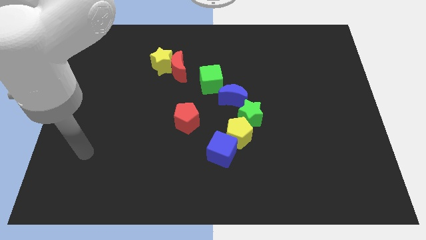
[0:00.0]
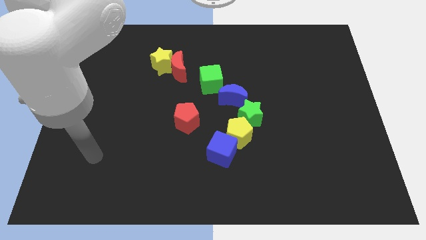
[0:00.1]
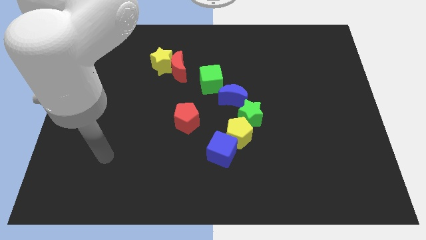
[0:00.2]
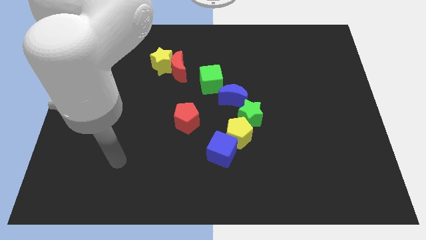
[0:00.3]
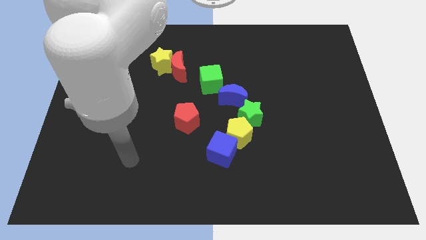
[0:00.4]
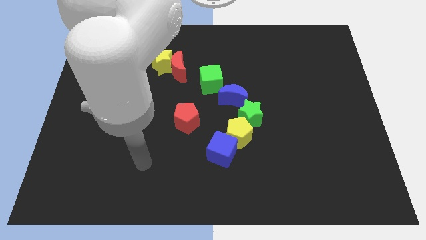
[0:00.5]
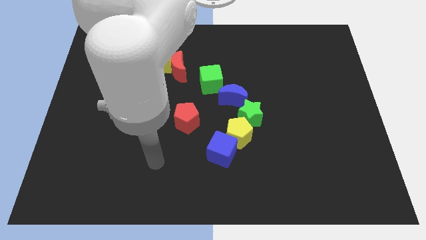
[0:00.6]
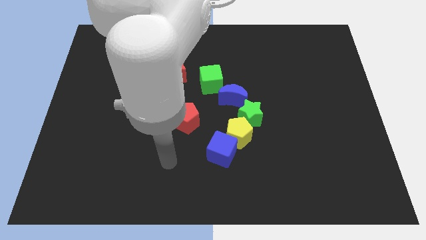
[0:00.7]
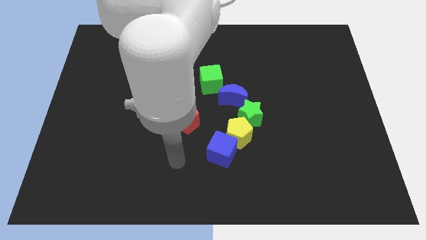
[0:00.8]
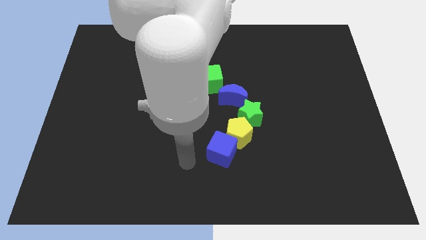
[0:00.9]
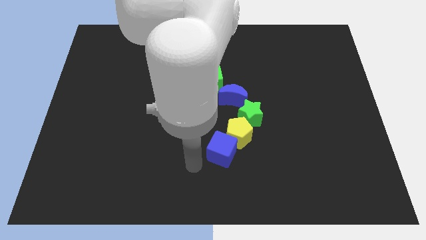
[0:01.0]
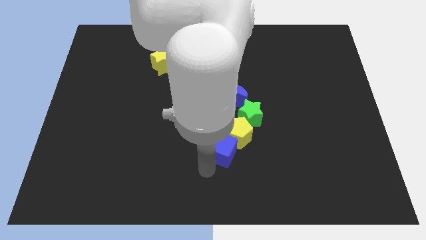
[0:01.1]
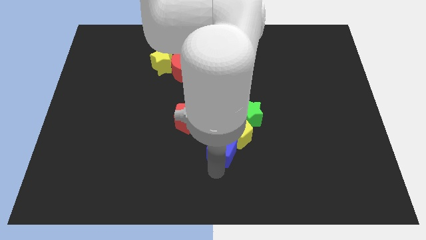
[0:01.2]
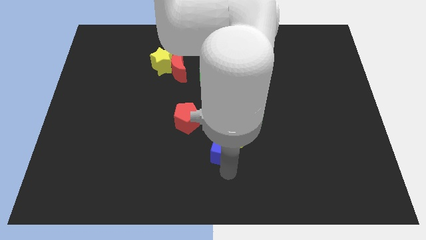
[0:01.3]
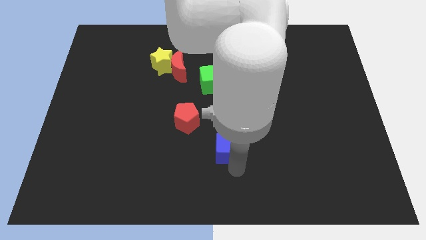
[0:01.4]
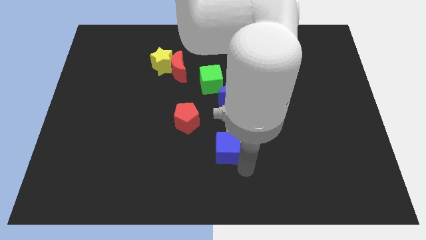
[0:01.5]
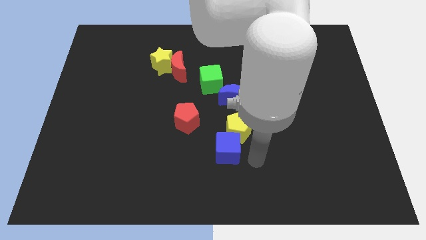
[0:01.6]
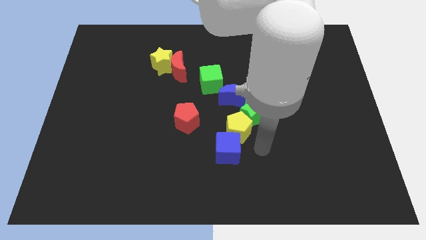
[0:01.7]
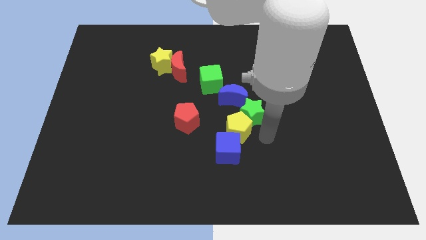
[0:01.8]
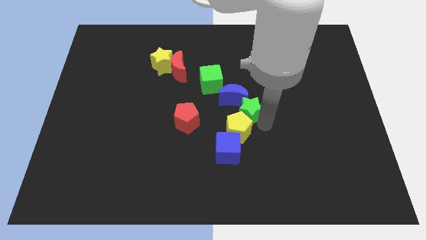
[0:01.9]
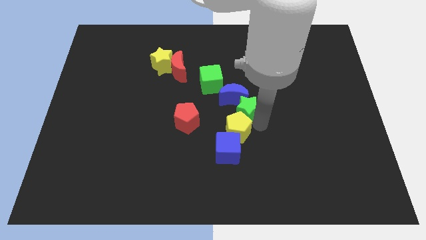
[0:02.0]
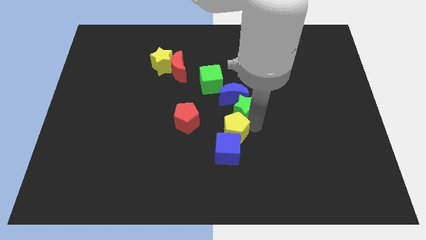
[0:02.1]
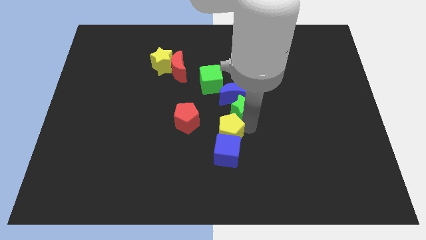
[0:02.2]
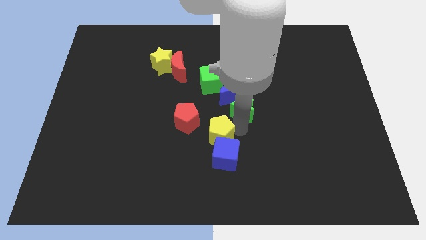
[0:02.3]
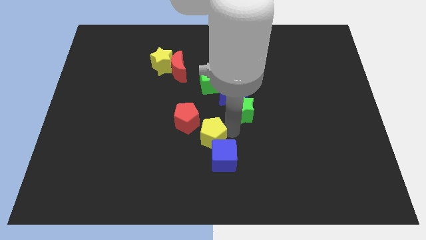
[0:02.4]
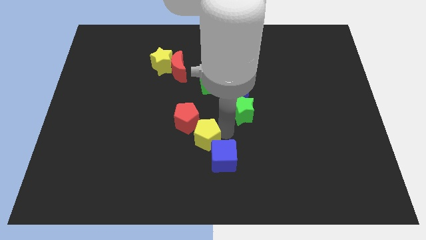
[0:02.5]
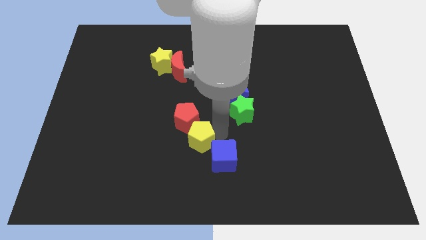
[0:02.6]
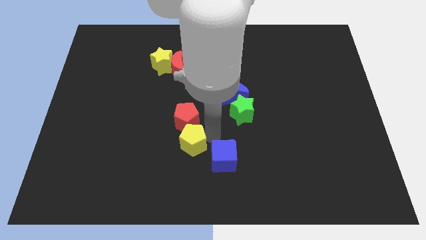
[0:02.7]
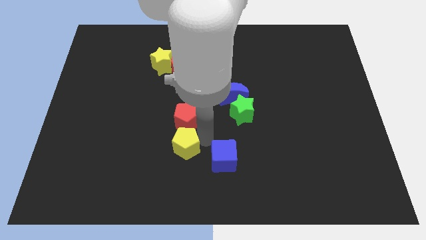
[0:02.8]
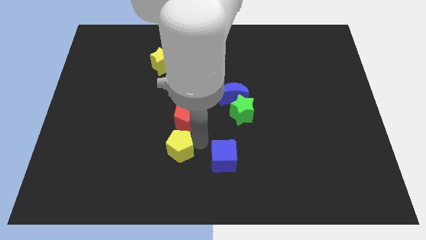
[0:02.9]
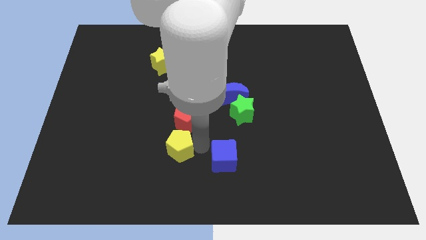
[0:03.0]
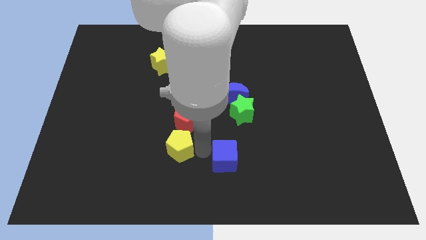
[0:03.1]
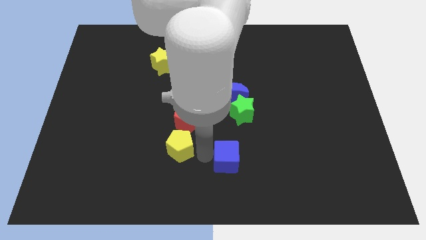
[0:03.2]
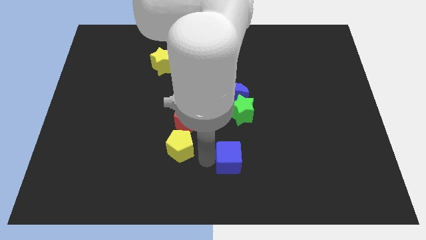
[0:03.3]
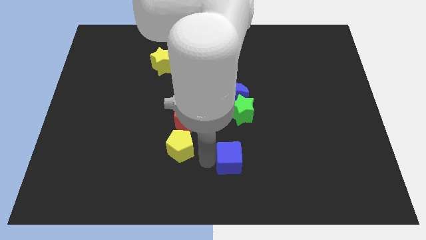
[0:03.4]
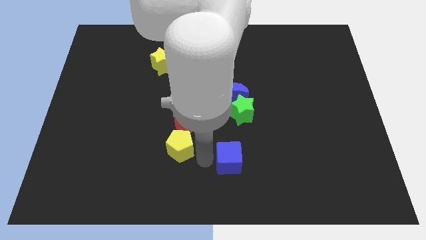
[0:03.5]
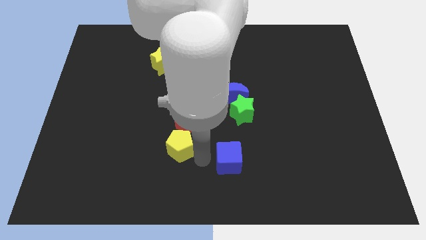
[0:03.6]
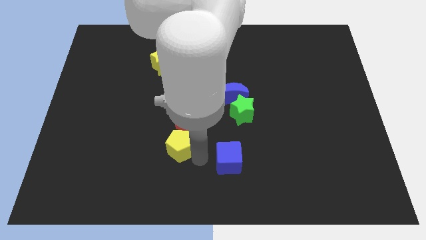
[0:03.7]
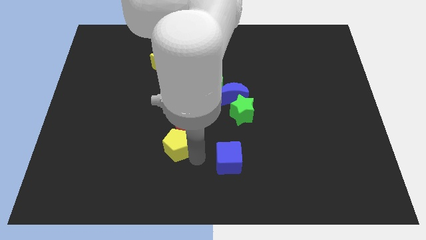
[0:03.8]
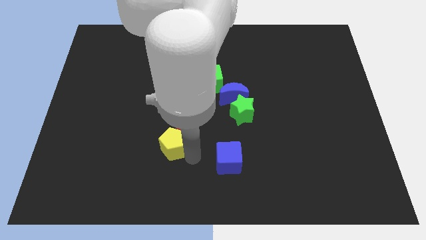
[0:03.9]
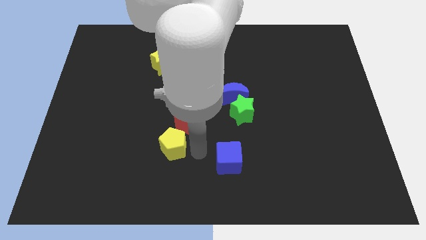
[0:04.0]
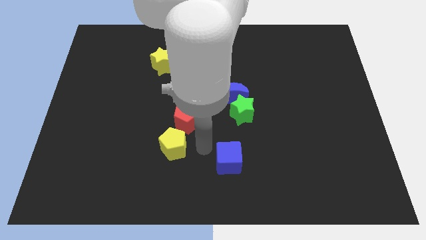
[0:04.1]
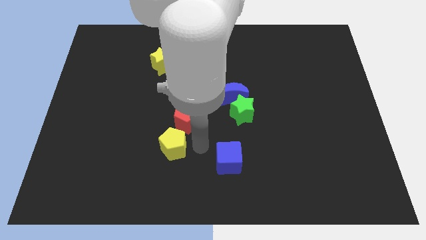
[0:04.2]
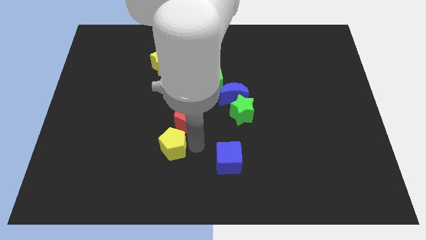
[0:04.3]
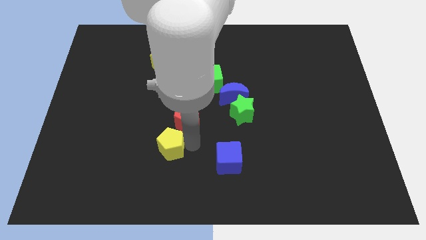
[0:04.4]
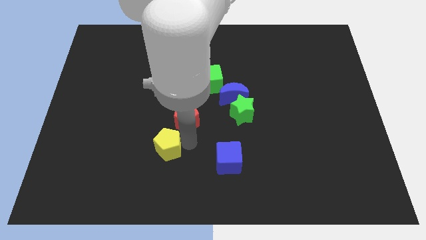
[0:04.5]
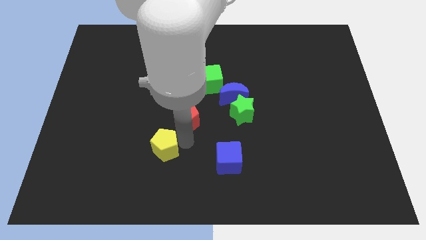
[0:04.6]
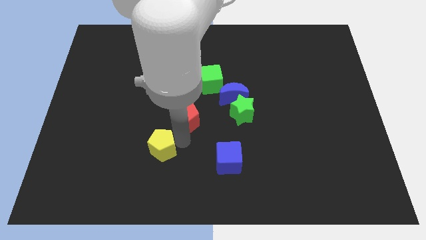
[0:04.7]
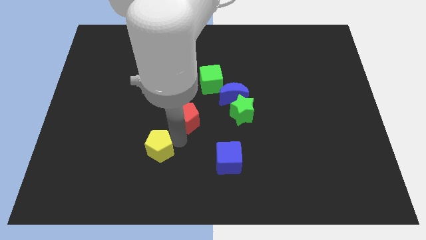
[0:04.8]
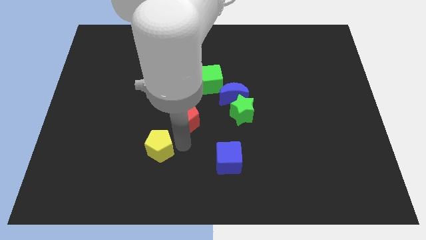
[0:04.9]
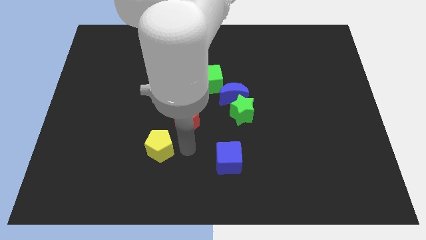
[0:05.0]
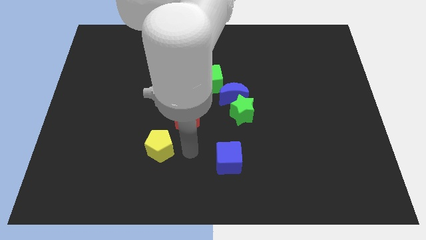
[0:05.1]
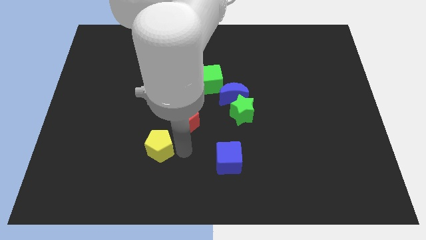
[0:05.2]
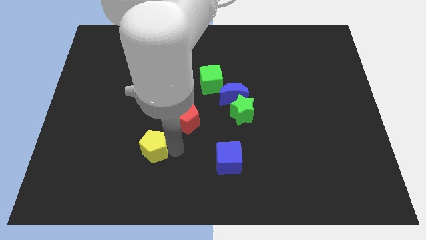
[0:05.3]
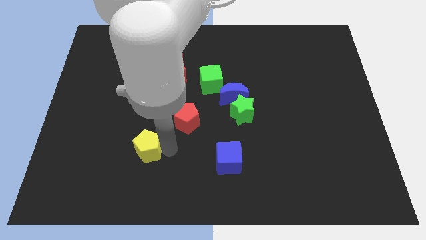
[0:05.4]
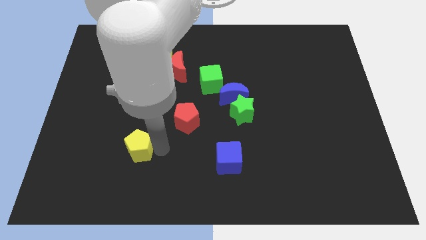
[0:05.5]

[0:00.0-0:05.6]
push the yellow pentagon to the left

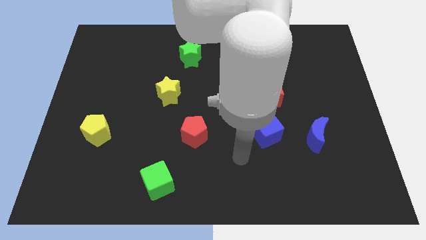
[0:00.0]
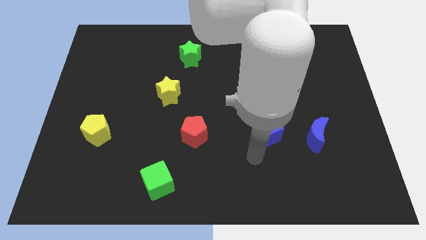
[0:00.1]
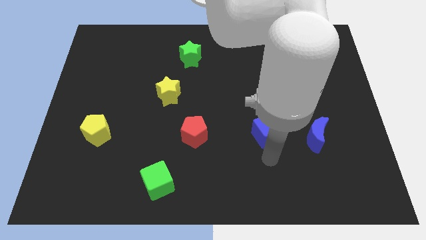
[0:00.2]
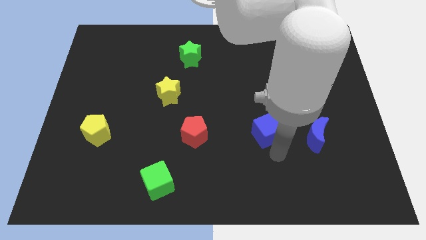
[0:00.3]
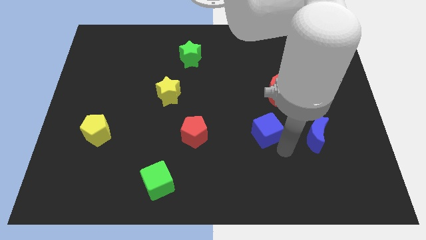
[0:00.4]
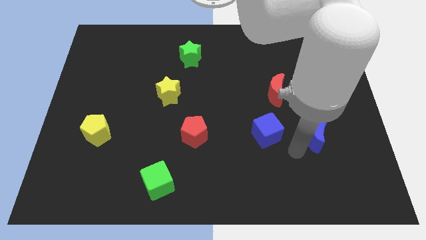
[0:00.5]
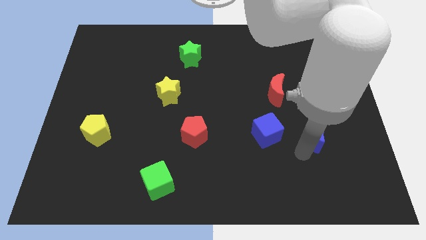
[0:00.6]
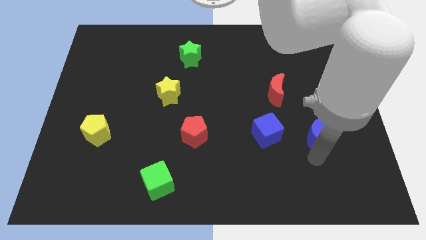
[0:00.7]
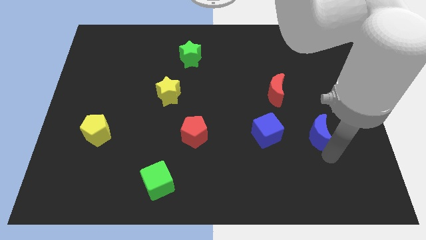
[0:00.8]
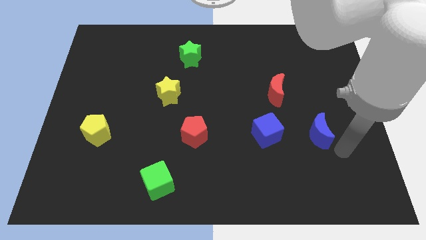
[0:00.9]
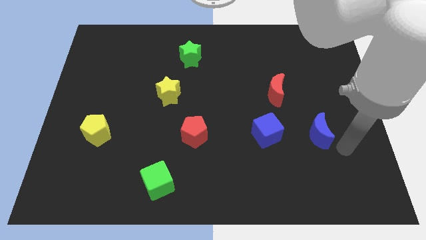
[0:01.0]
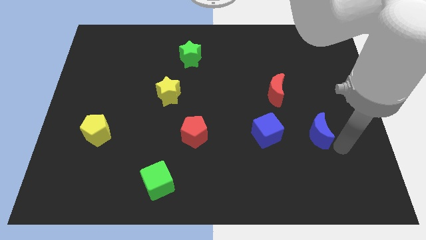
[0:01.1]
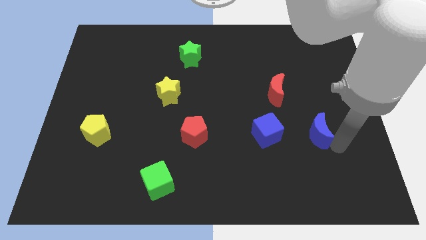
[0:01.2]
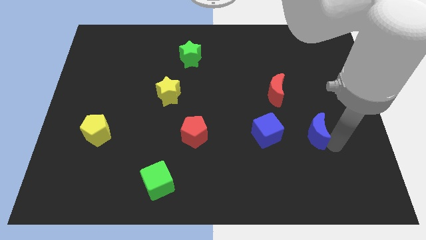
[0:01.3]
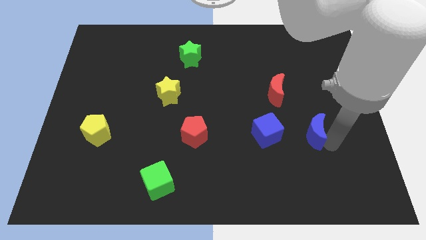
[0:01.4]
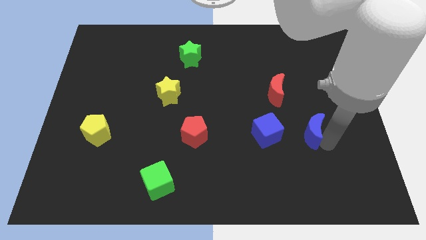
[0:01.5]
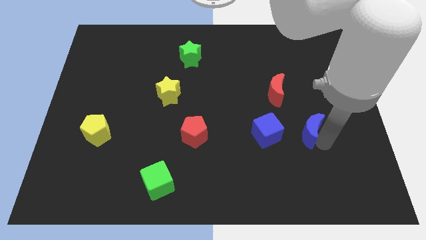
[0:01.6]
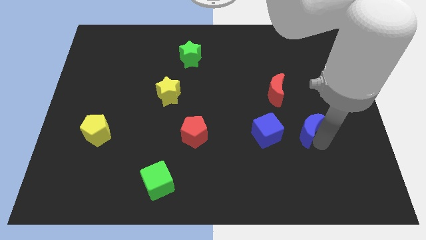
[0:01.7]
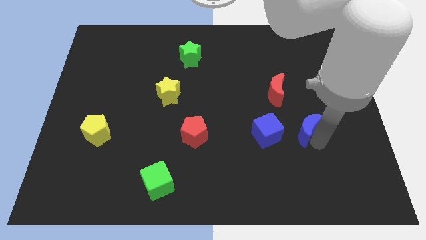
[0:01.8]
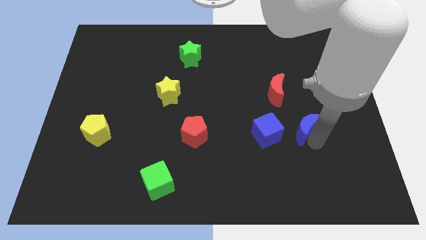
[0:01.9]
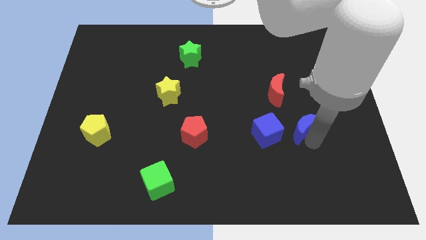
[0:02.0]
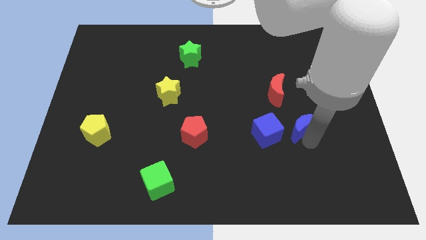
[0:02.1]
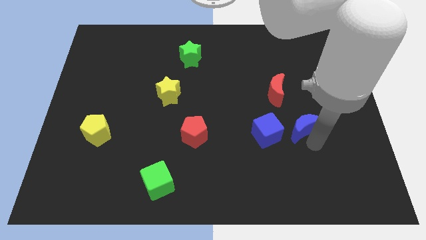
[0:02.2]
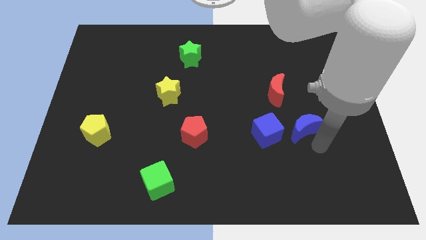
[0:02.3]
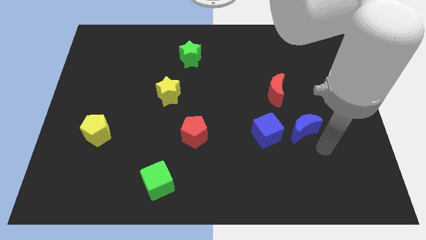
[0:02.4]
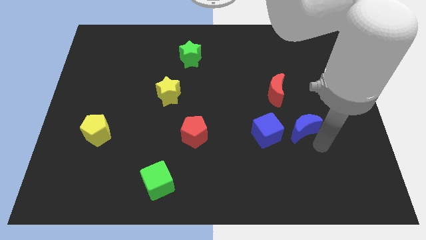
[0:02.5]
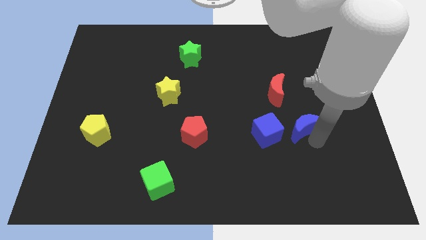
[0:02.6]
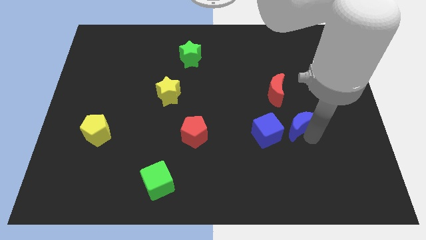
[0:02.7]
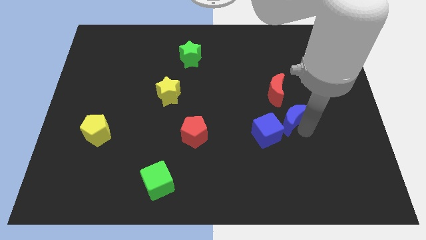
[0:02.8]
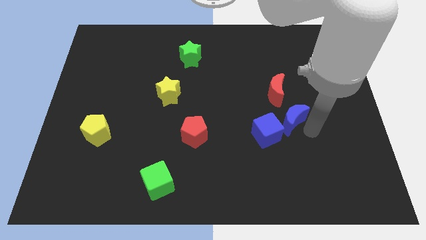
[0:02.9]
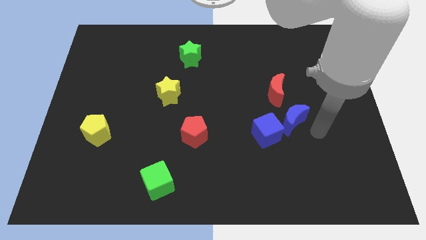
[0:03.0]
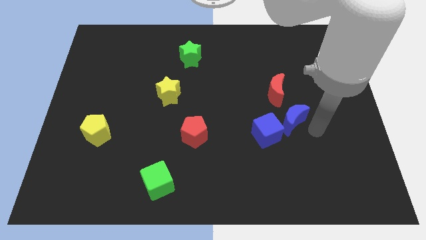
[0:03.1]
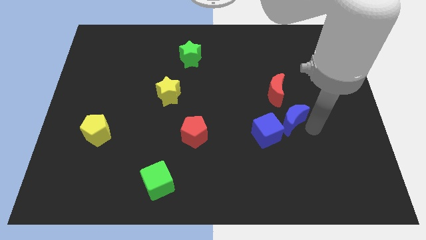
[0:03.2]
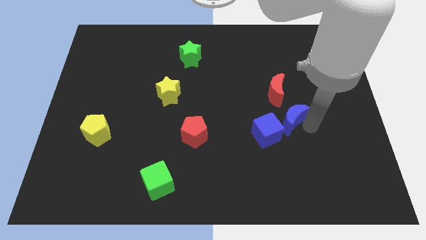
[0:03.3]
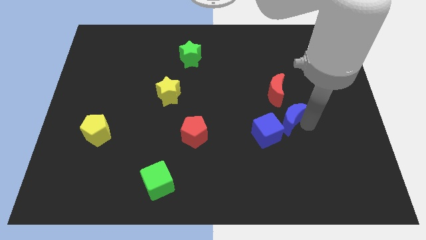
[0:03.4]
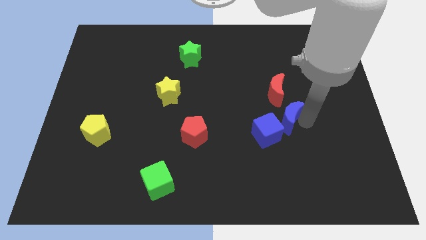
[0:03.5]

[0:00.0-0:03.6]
slide the blue moon slightly diagonally up and to the left
